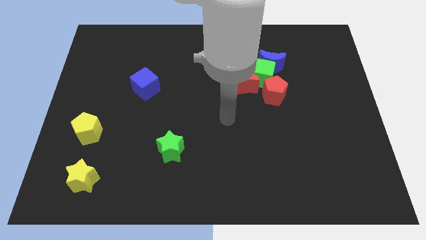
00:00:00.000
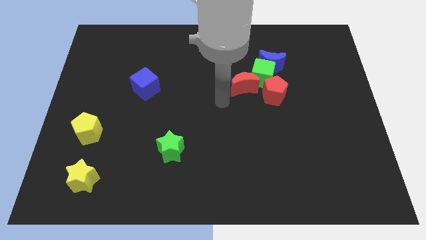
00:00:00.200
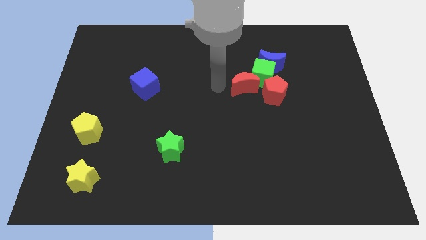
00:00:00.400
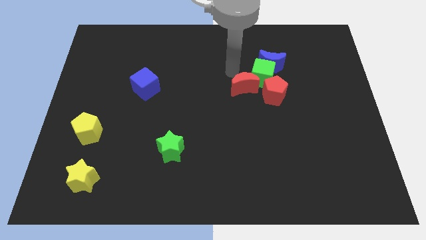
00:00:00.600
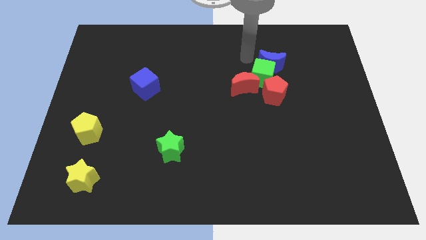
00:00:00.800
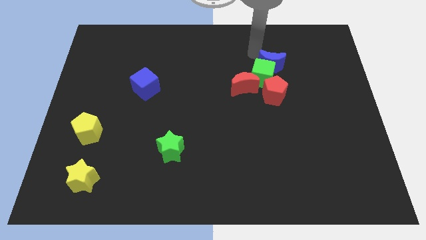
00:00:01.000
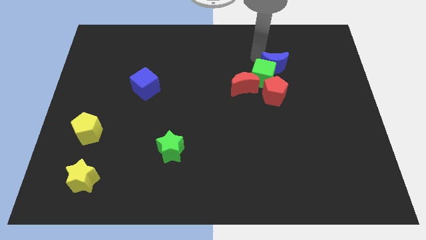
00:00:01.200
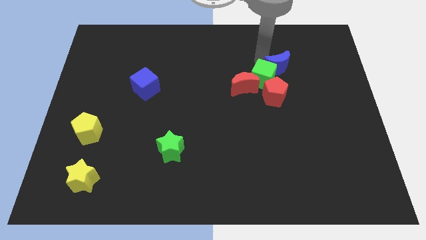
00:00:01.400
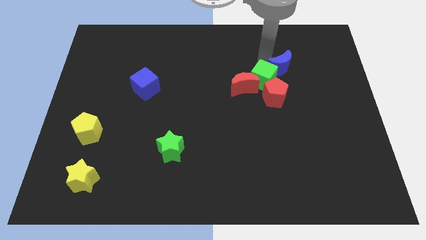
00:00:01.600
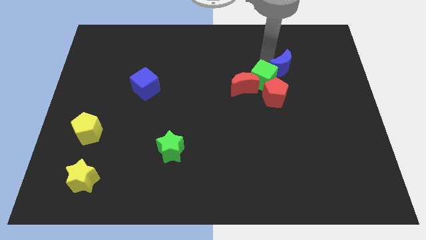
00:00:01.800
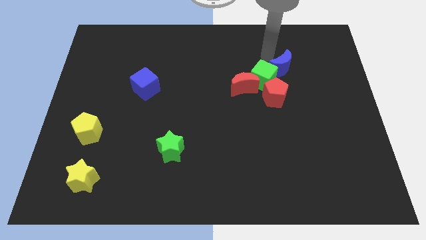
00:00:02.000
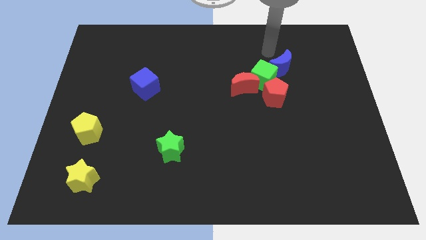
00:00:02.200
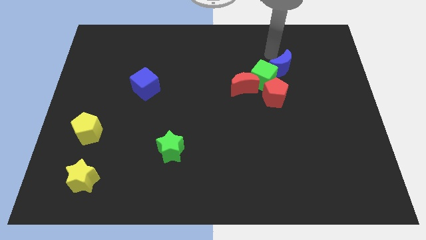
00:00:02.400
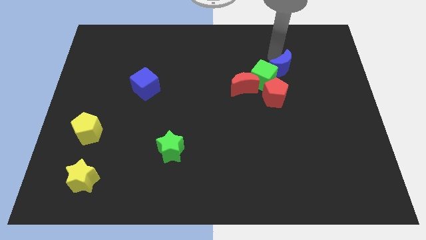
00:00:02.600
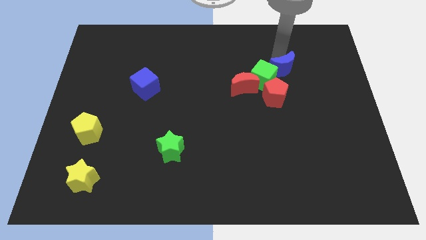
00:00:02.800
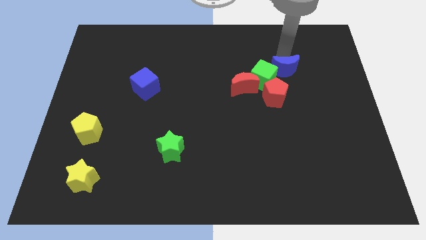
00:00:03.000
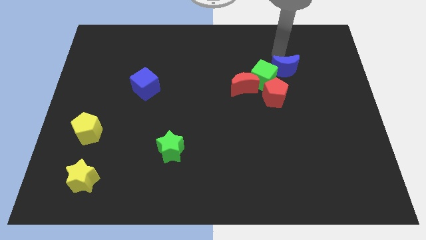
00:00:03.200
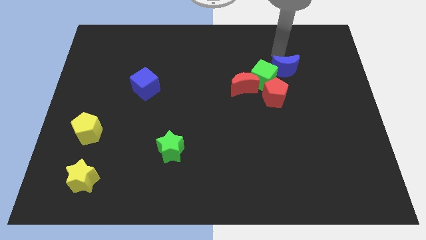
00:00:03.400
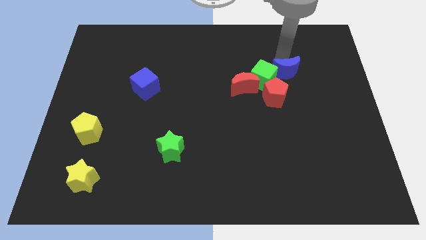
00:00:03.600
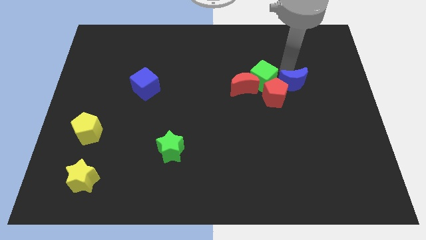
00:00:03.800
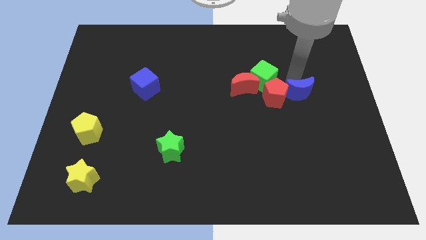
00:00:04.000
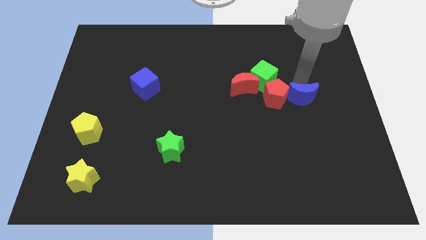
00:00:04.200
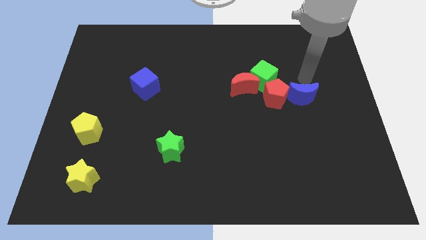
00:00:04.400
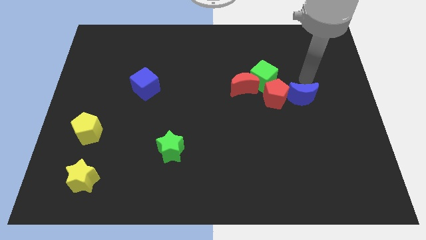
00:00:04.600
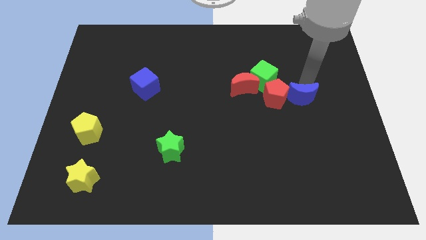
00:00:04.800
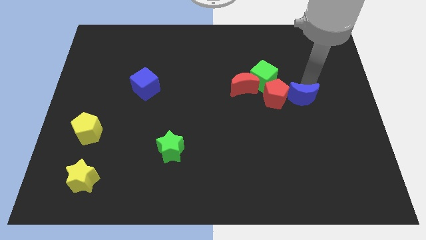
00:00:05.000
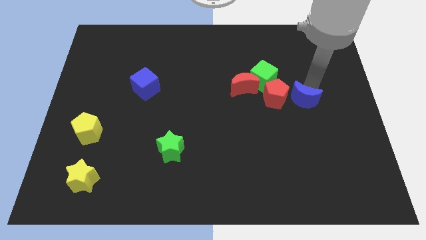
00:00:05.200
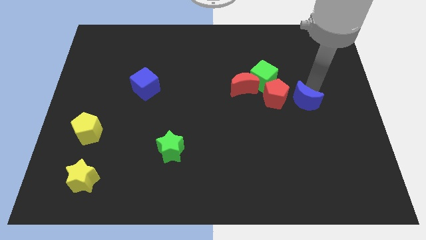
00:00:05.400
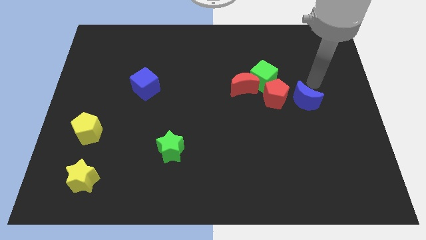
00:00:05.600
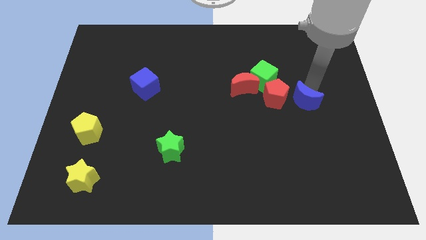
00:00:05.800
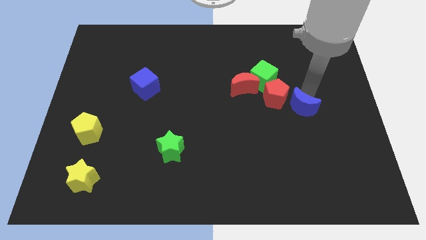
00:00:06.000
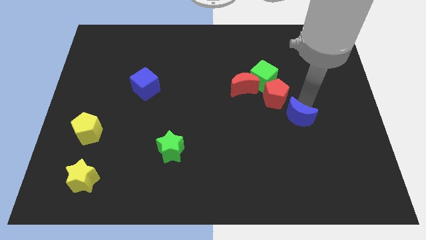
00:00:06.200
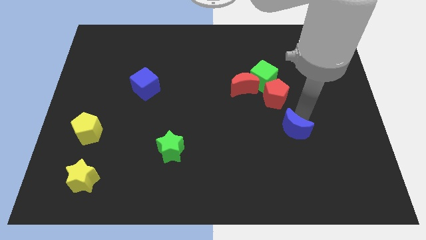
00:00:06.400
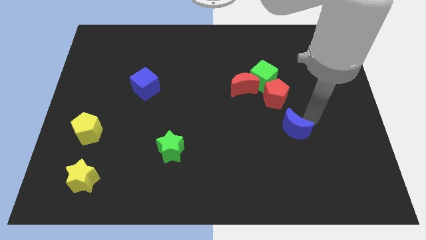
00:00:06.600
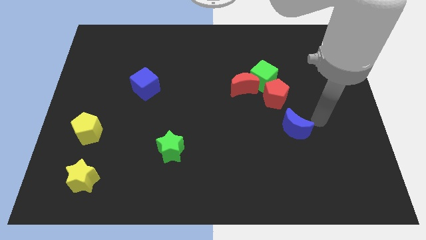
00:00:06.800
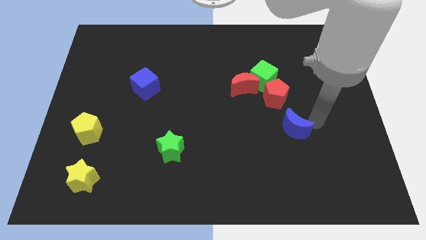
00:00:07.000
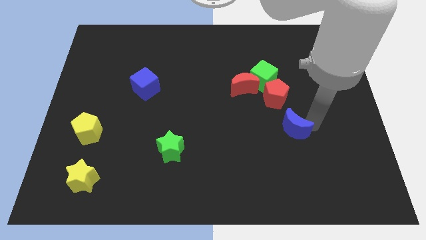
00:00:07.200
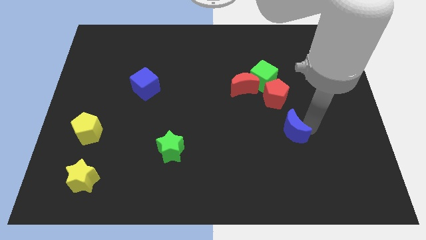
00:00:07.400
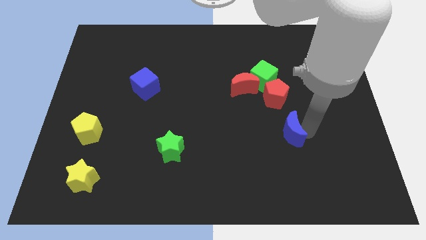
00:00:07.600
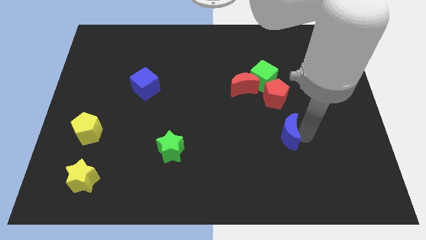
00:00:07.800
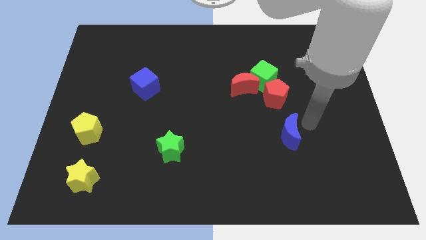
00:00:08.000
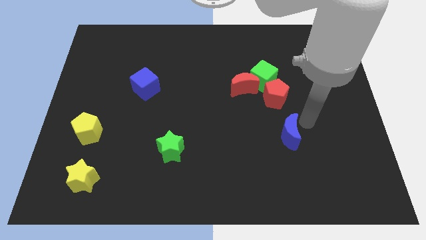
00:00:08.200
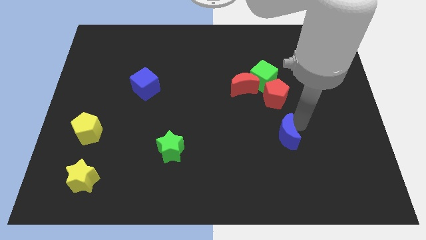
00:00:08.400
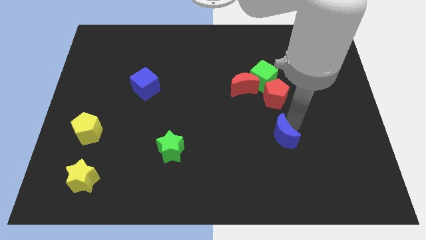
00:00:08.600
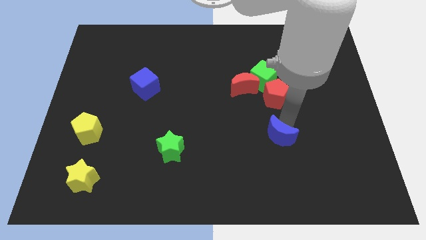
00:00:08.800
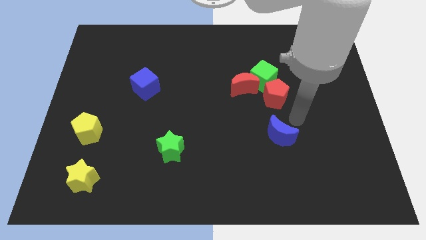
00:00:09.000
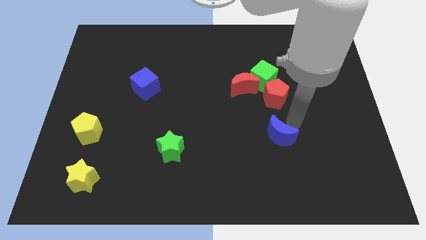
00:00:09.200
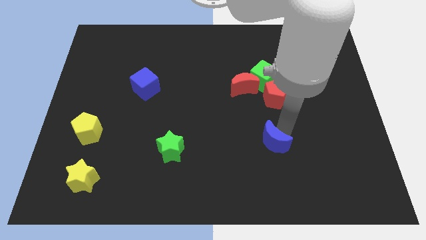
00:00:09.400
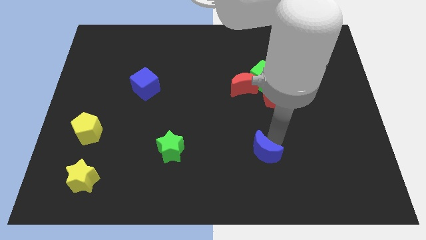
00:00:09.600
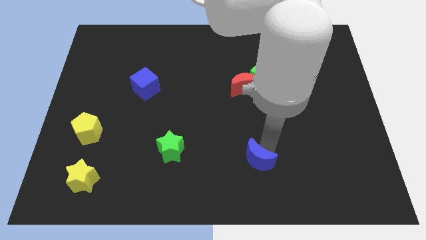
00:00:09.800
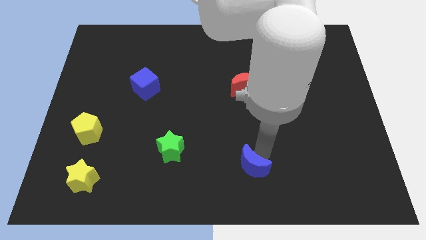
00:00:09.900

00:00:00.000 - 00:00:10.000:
move the blue moon to the bottom side

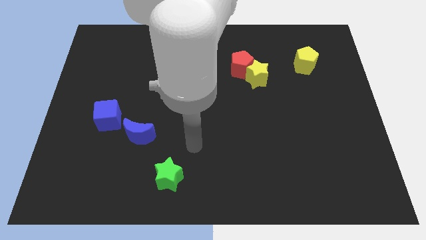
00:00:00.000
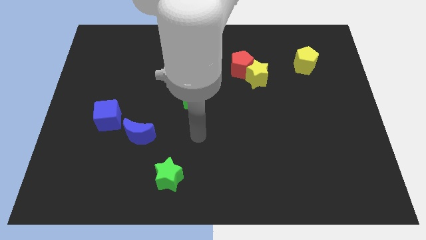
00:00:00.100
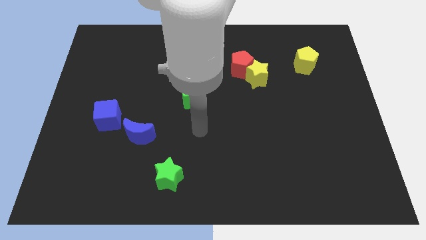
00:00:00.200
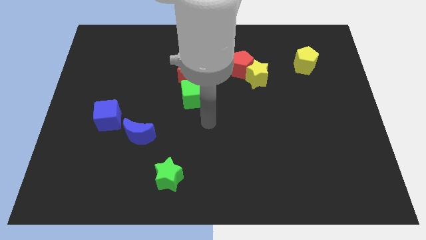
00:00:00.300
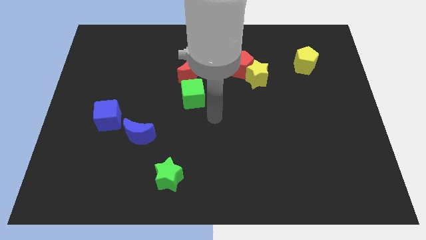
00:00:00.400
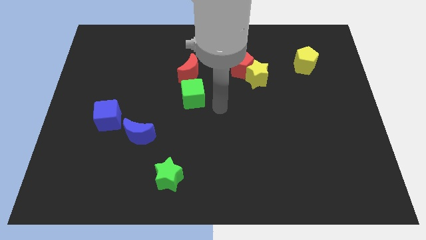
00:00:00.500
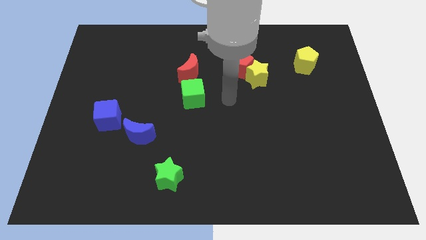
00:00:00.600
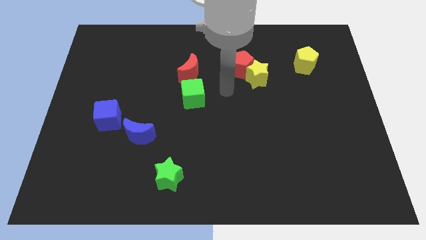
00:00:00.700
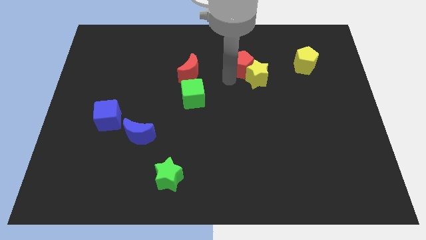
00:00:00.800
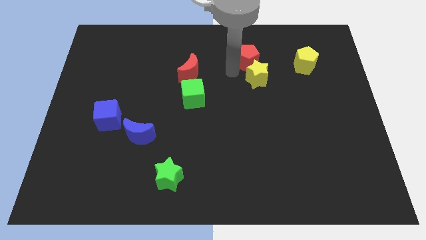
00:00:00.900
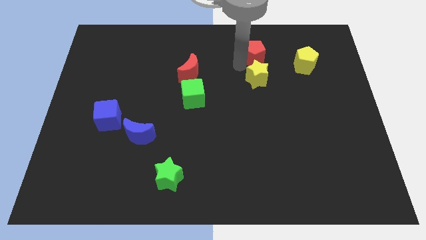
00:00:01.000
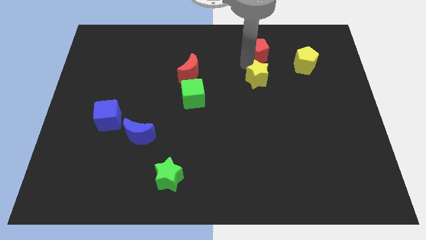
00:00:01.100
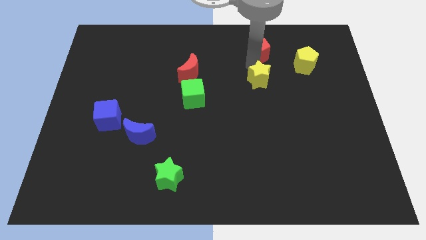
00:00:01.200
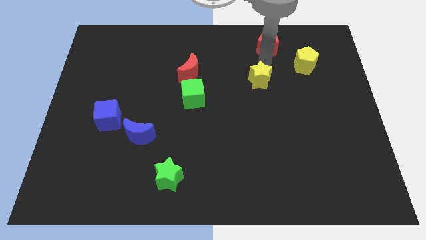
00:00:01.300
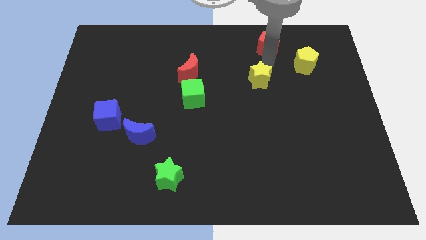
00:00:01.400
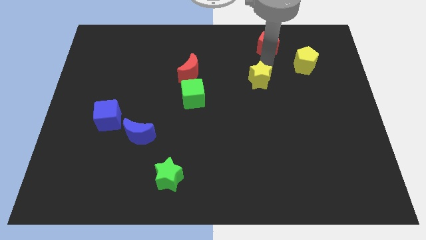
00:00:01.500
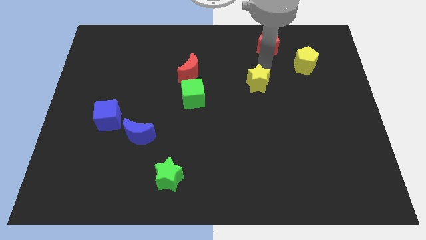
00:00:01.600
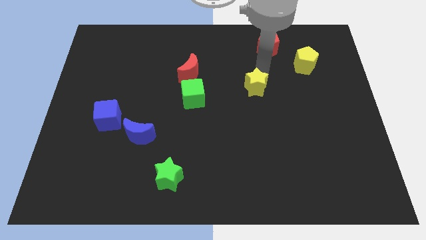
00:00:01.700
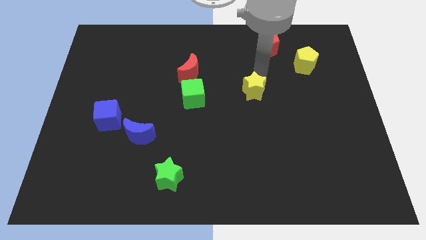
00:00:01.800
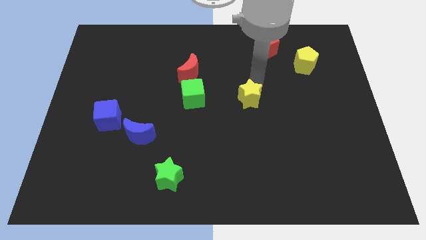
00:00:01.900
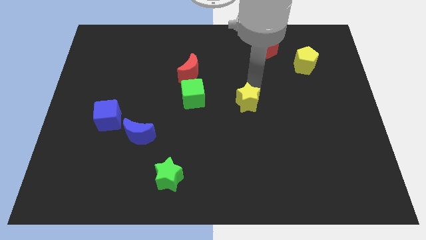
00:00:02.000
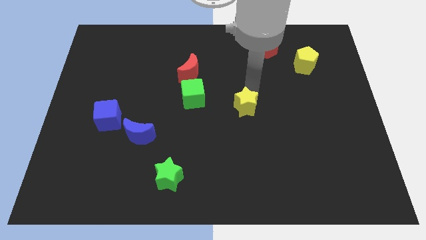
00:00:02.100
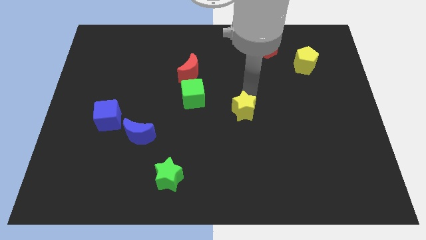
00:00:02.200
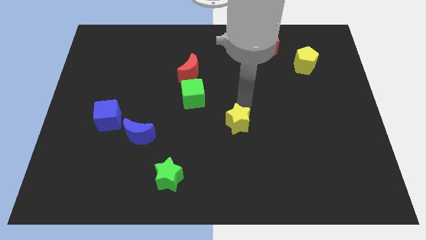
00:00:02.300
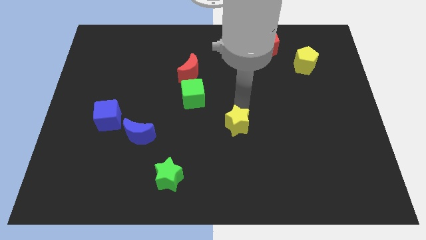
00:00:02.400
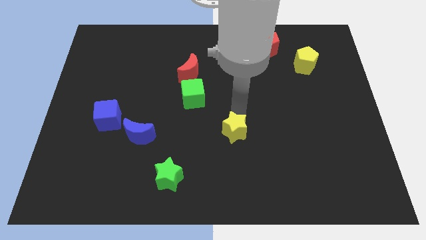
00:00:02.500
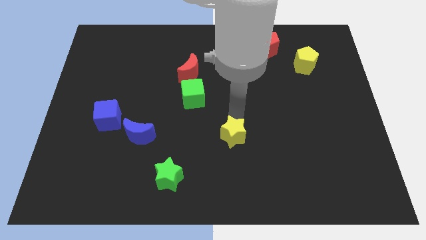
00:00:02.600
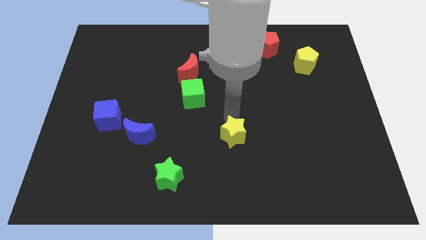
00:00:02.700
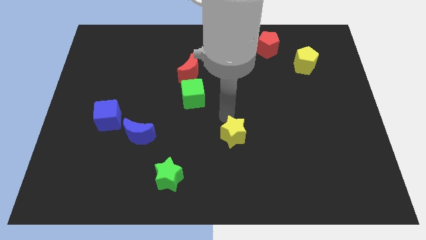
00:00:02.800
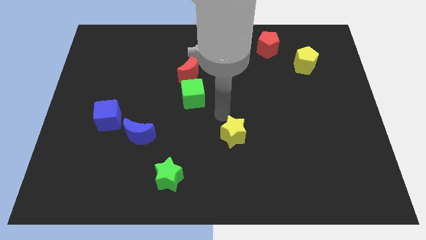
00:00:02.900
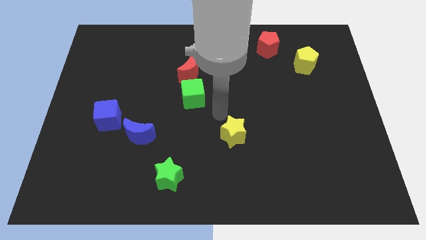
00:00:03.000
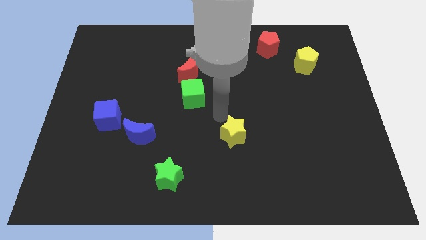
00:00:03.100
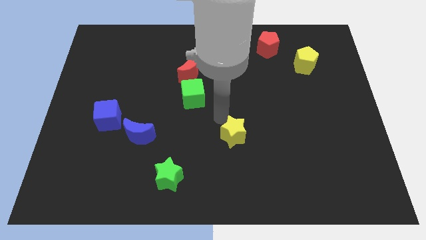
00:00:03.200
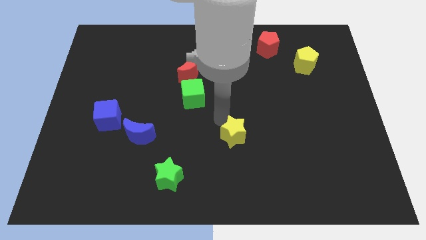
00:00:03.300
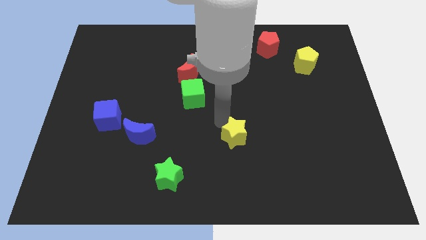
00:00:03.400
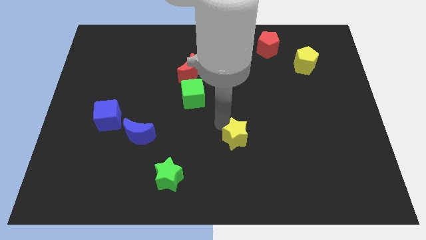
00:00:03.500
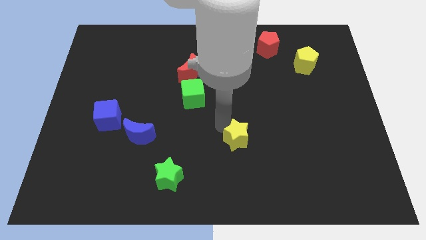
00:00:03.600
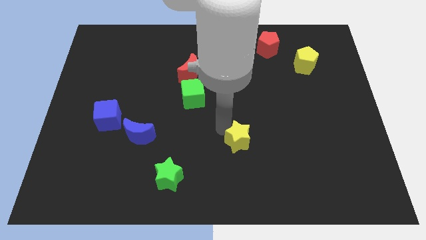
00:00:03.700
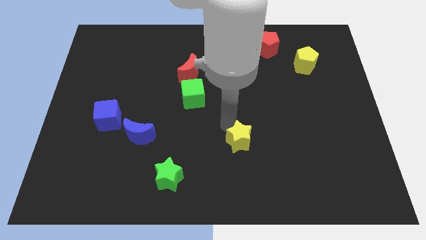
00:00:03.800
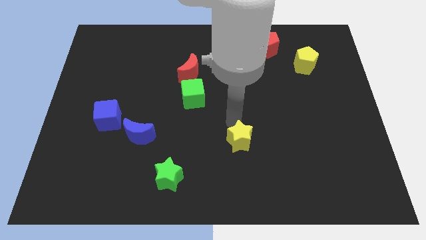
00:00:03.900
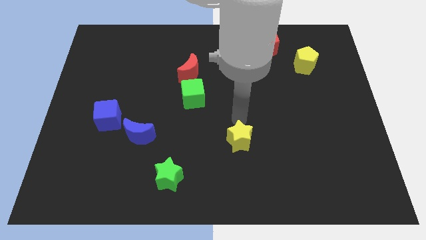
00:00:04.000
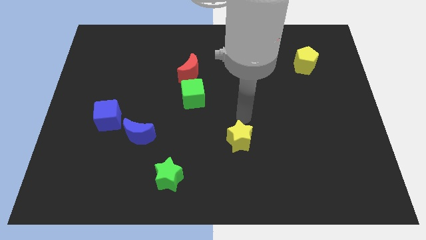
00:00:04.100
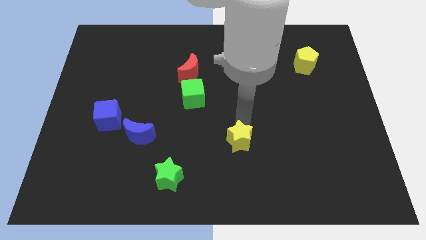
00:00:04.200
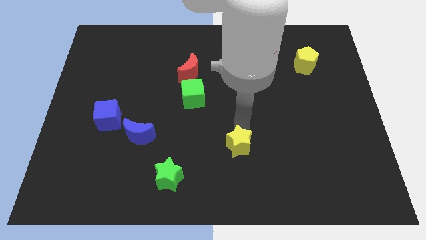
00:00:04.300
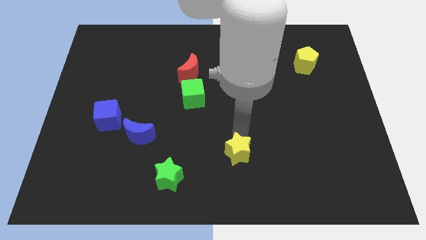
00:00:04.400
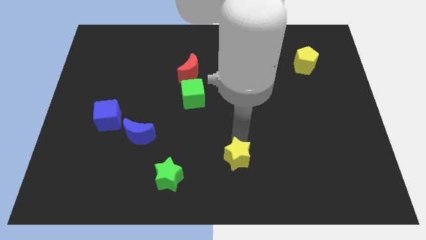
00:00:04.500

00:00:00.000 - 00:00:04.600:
slide the yellow star to the bottom
